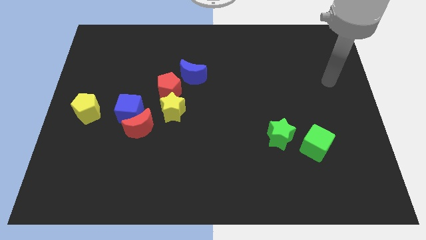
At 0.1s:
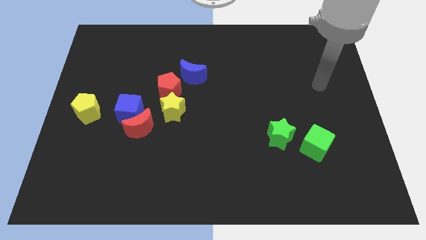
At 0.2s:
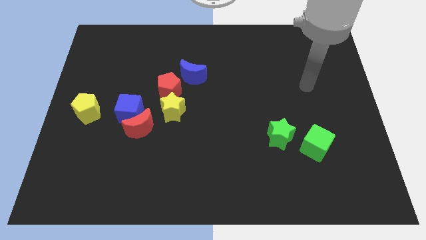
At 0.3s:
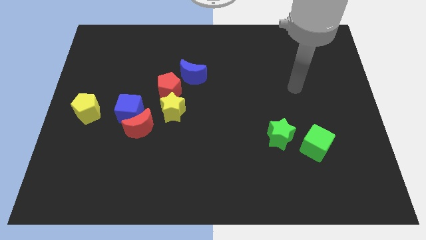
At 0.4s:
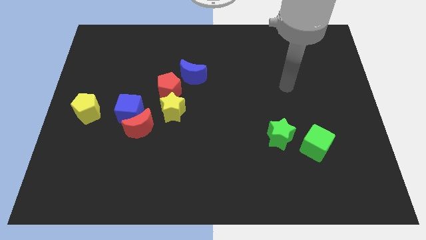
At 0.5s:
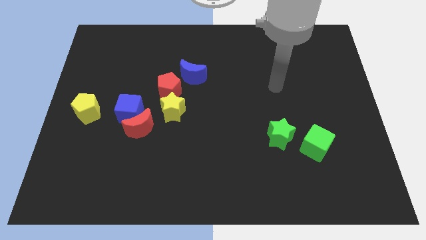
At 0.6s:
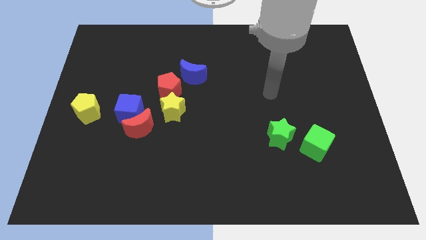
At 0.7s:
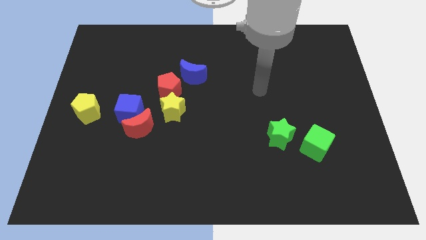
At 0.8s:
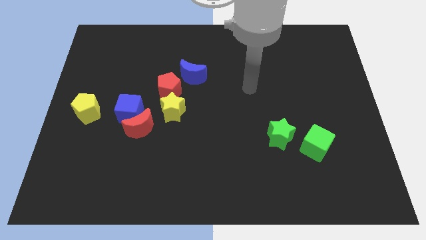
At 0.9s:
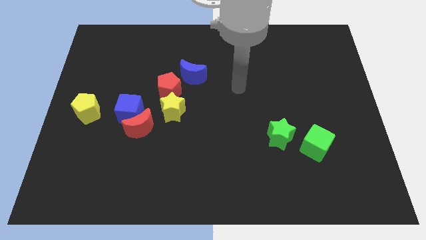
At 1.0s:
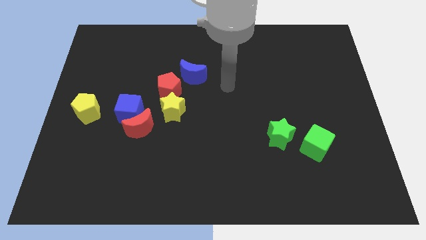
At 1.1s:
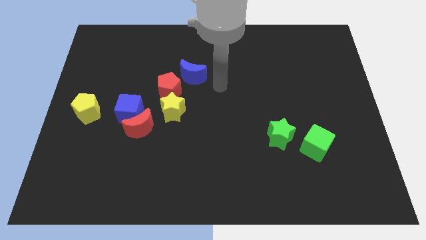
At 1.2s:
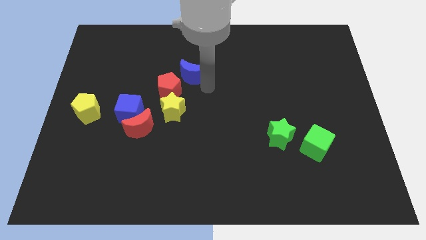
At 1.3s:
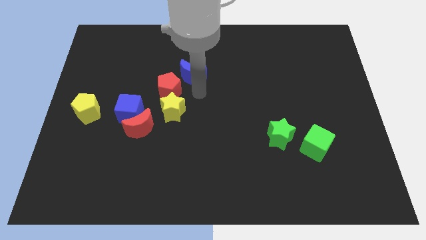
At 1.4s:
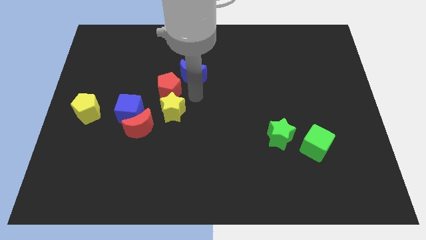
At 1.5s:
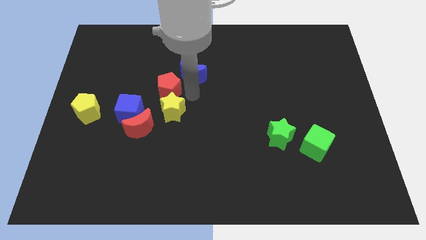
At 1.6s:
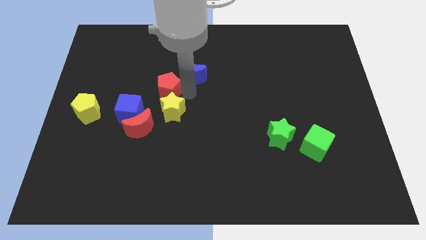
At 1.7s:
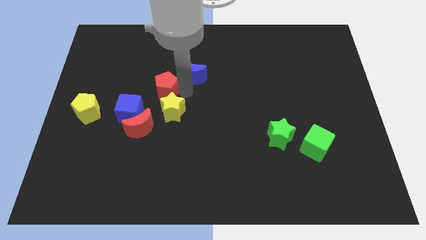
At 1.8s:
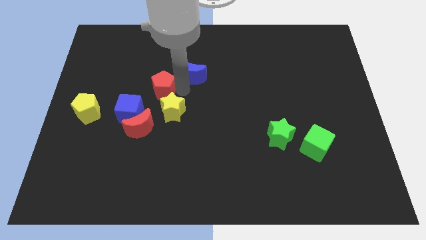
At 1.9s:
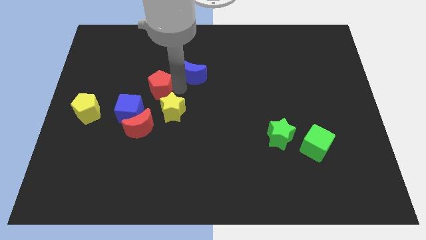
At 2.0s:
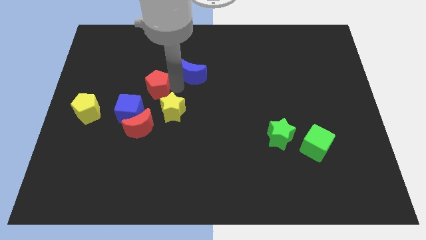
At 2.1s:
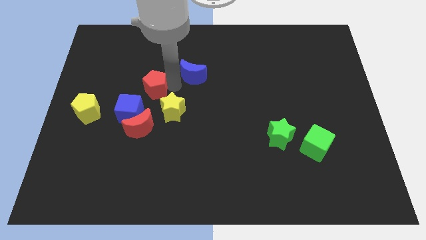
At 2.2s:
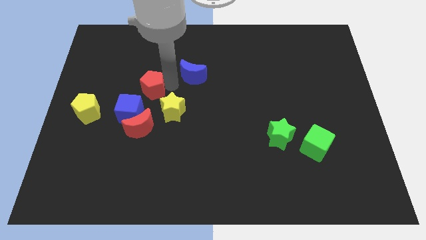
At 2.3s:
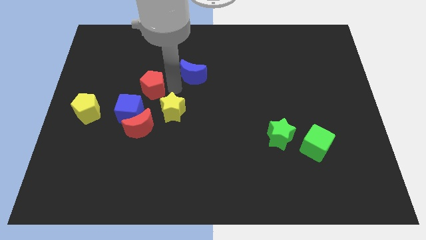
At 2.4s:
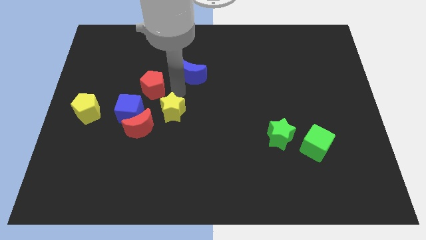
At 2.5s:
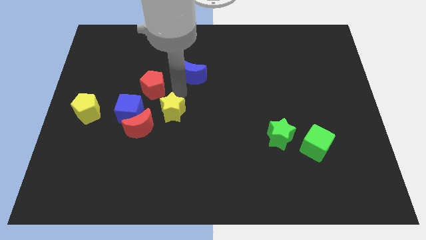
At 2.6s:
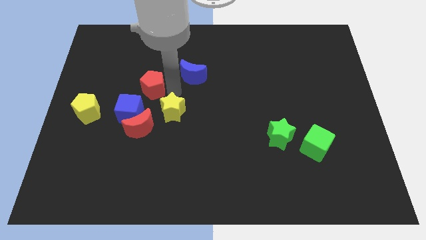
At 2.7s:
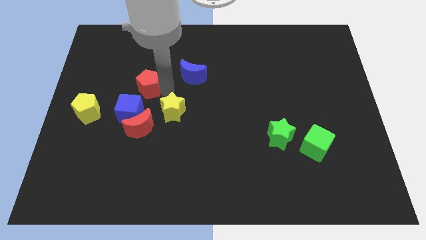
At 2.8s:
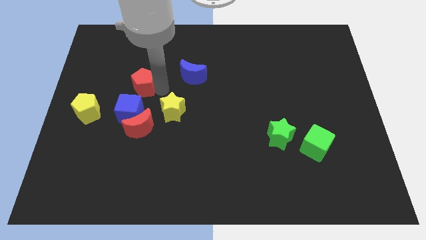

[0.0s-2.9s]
separate the red pentagon from the yellow star and blue moon

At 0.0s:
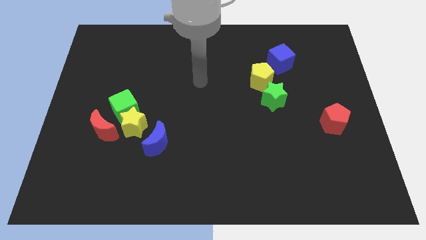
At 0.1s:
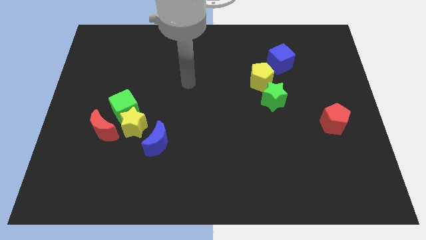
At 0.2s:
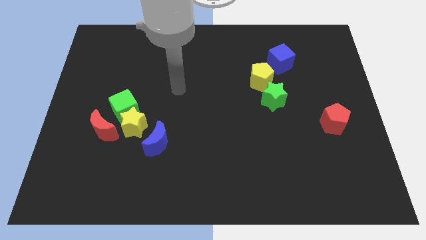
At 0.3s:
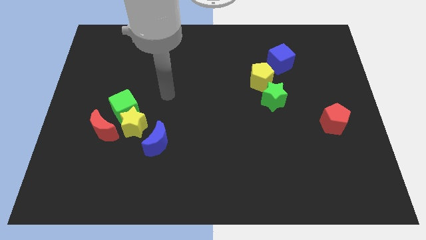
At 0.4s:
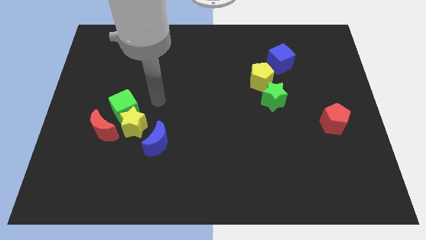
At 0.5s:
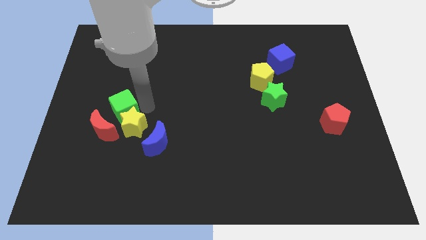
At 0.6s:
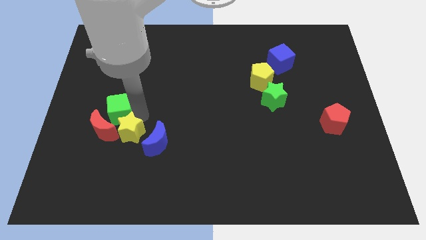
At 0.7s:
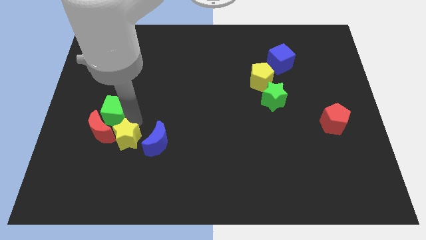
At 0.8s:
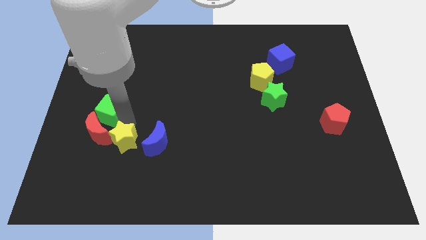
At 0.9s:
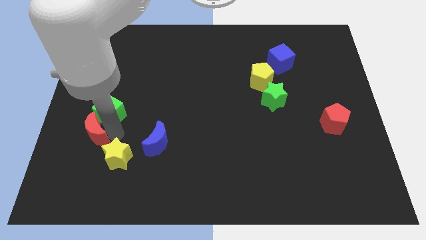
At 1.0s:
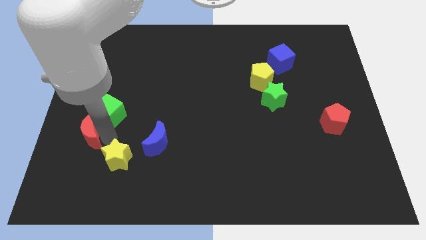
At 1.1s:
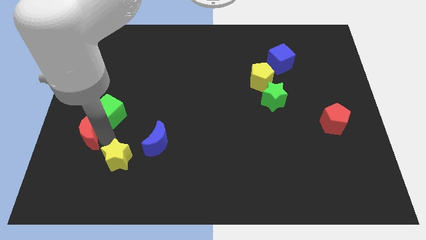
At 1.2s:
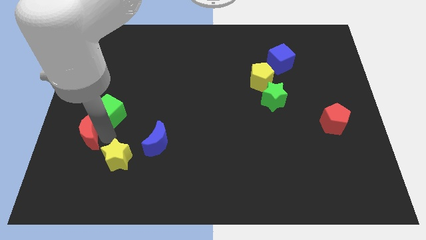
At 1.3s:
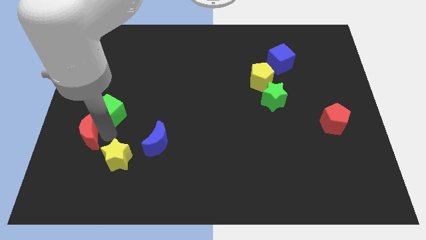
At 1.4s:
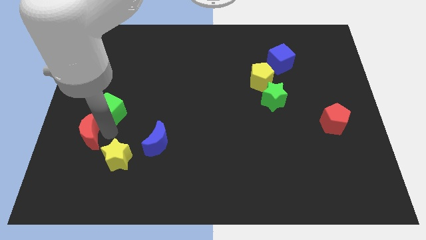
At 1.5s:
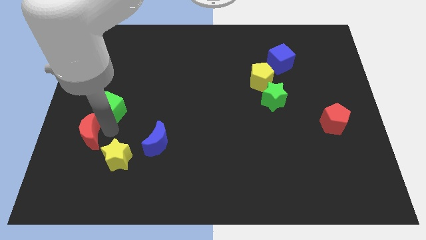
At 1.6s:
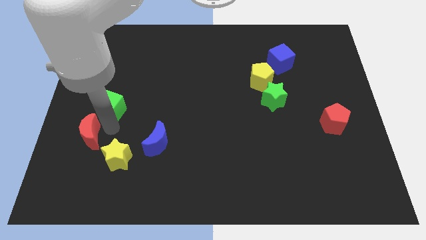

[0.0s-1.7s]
move the green cube away from the yellow star and red moon

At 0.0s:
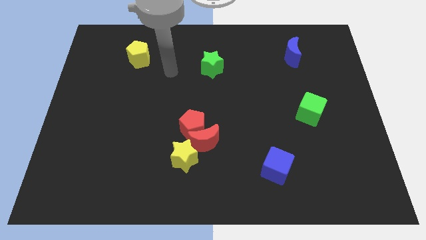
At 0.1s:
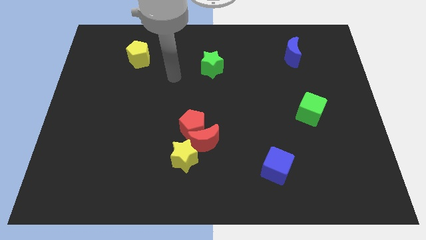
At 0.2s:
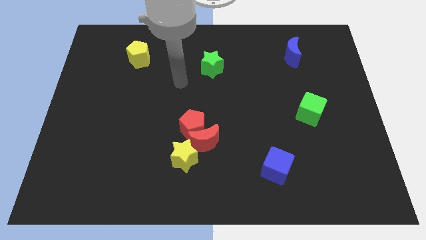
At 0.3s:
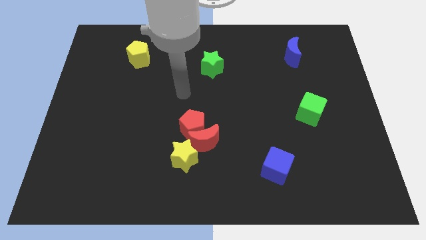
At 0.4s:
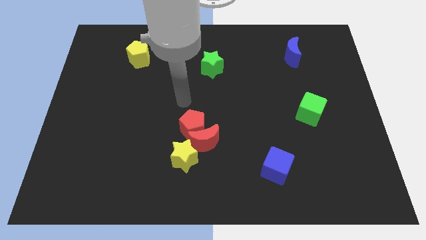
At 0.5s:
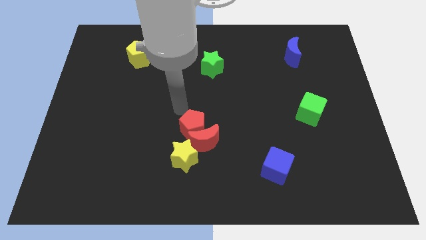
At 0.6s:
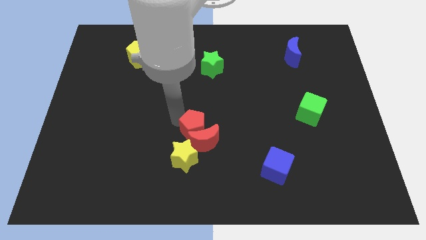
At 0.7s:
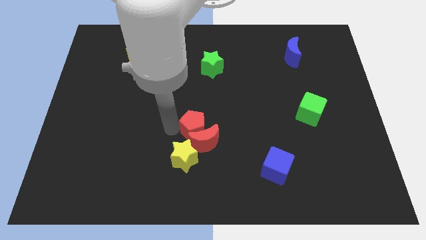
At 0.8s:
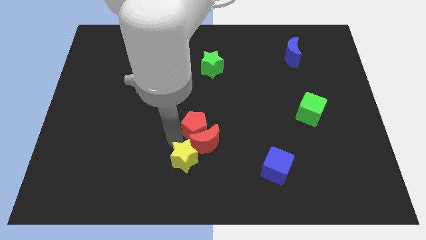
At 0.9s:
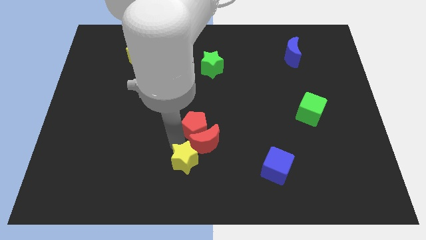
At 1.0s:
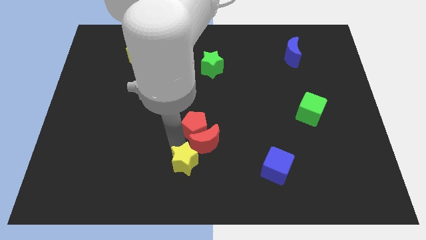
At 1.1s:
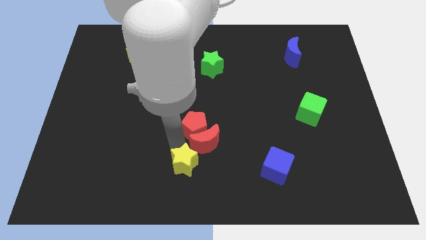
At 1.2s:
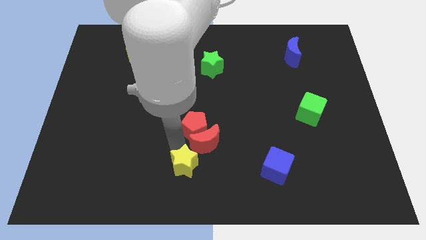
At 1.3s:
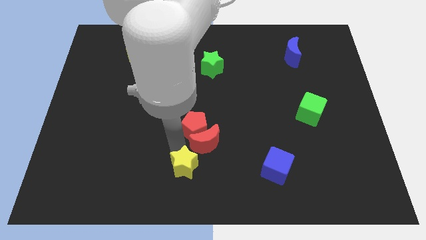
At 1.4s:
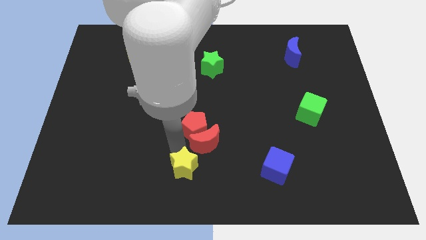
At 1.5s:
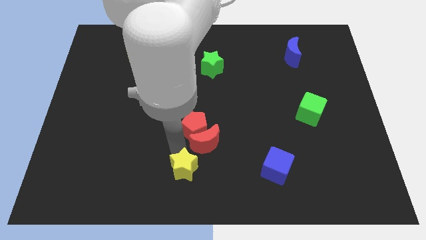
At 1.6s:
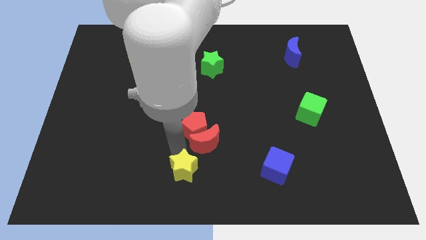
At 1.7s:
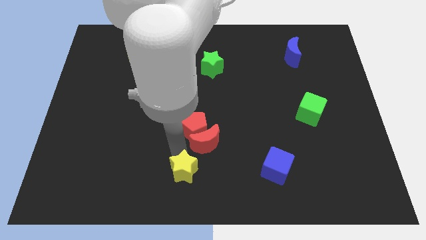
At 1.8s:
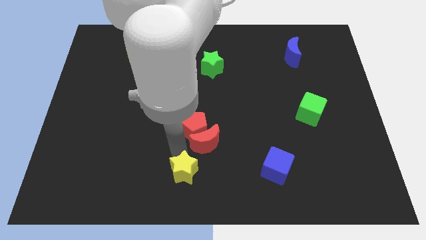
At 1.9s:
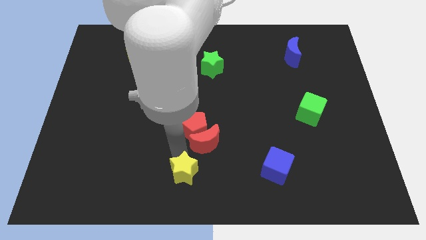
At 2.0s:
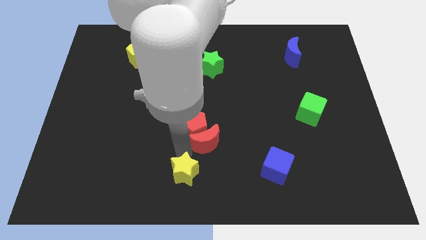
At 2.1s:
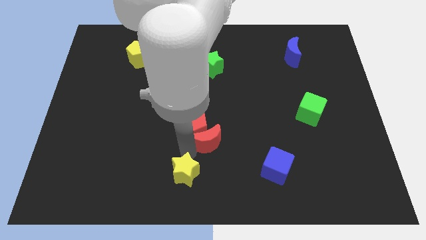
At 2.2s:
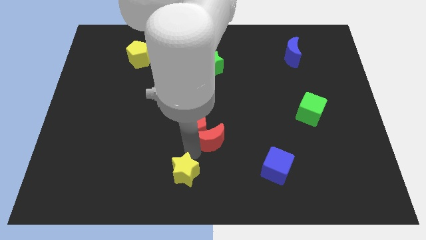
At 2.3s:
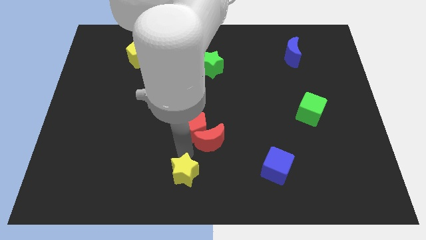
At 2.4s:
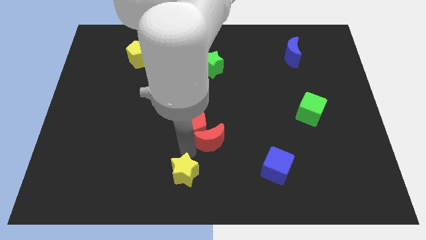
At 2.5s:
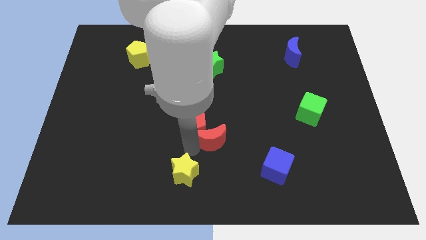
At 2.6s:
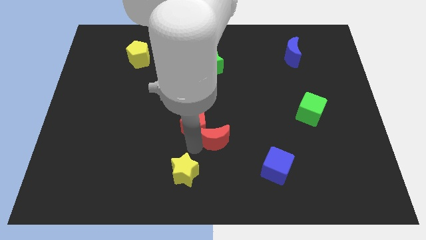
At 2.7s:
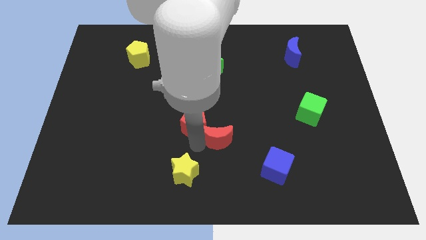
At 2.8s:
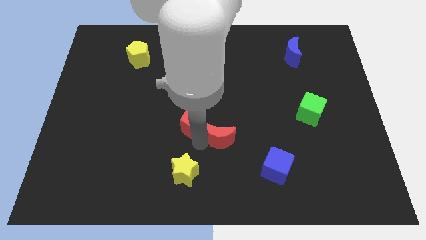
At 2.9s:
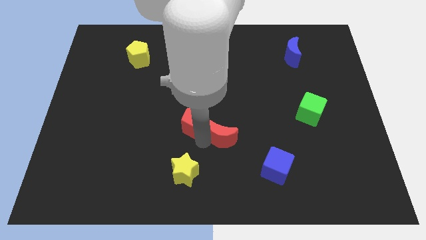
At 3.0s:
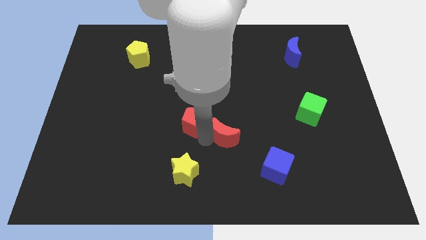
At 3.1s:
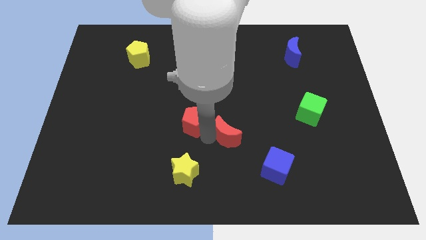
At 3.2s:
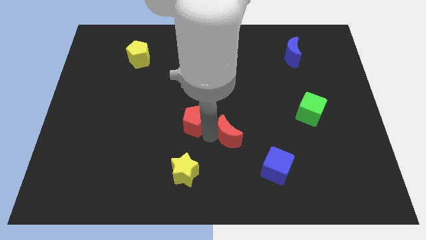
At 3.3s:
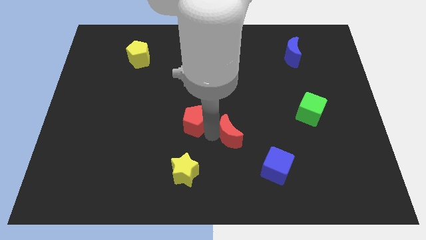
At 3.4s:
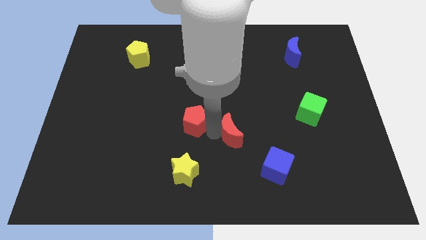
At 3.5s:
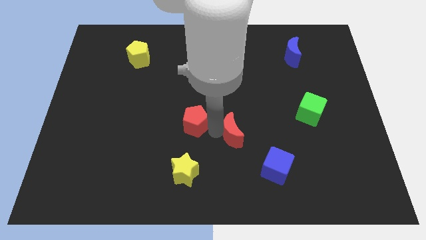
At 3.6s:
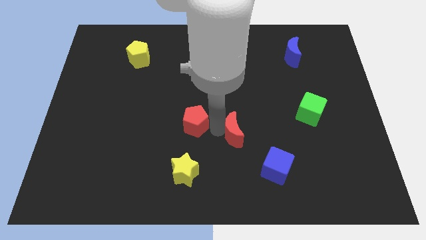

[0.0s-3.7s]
move the red moon away from the red pentagon and yellow star

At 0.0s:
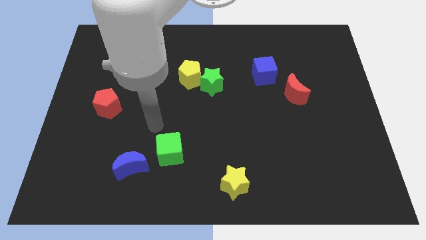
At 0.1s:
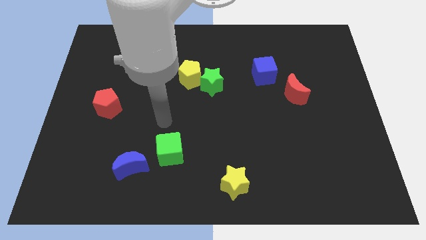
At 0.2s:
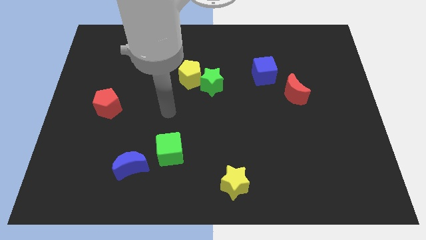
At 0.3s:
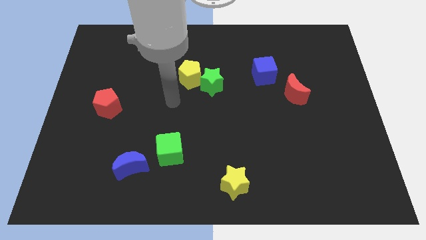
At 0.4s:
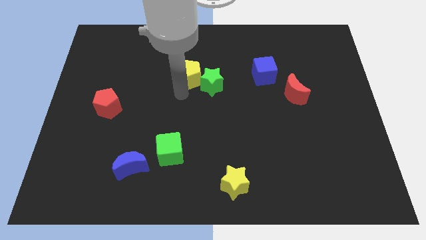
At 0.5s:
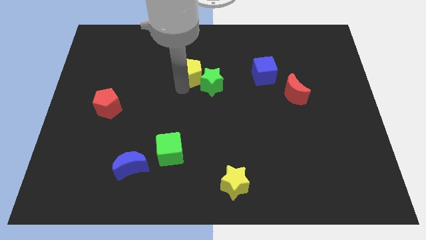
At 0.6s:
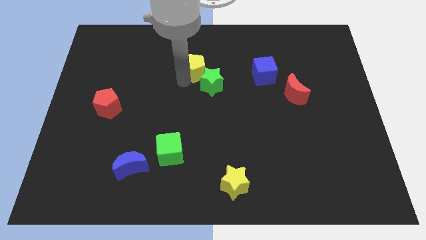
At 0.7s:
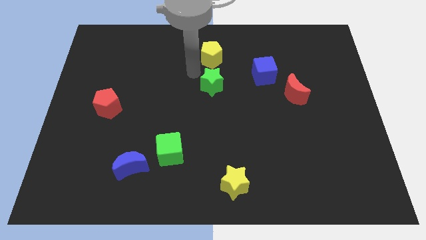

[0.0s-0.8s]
pull the green star apart from the yellow pentagon

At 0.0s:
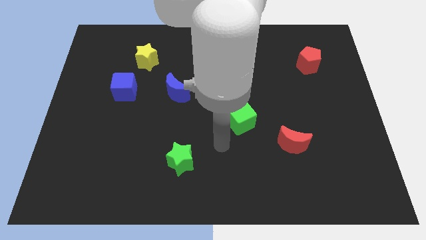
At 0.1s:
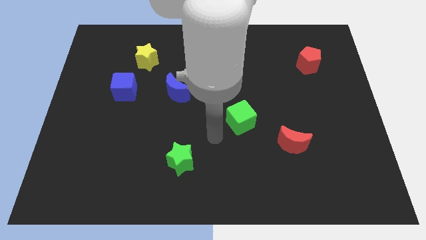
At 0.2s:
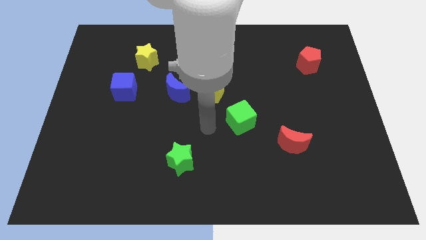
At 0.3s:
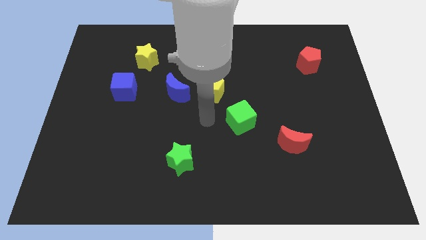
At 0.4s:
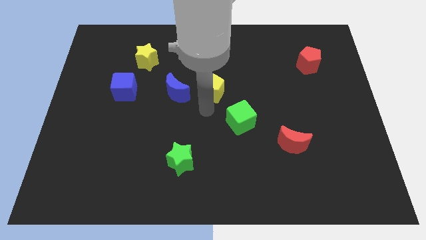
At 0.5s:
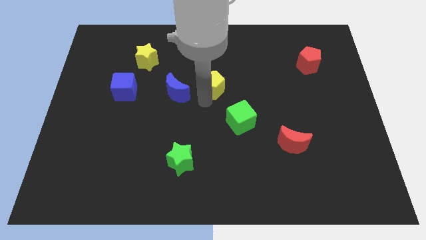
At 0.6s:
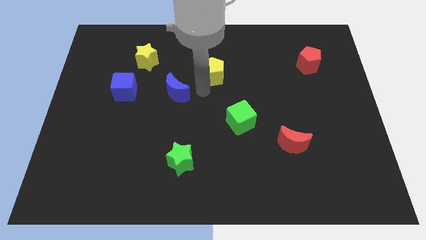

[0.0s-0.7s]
pull the blue moon apart from the yellow pentagon
